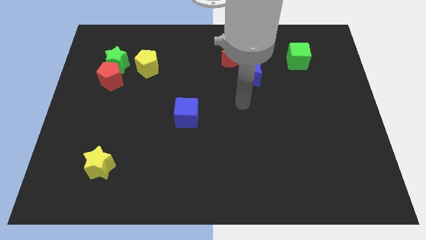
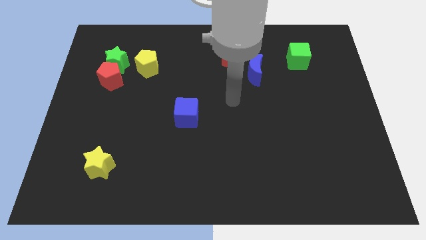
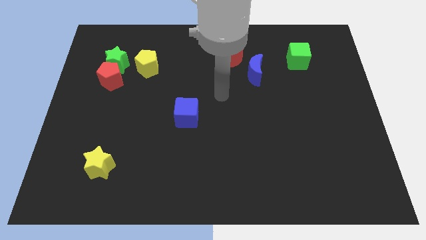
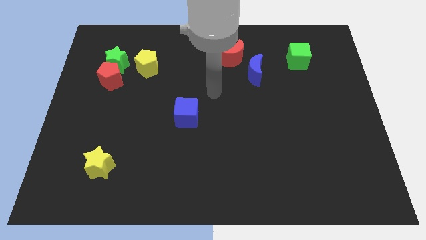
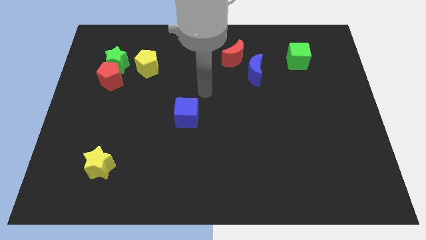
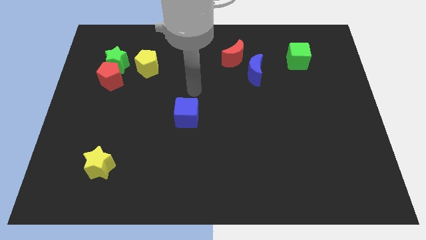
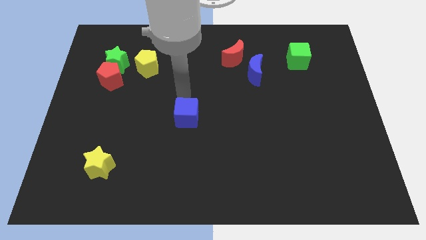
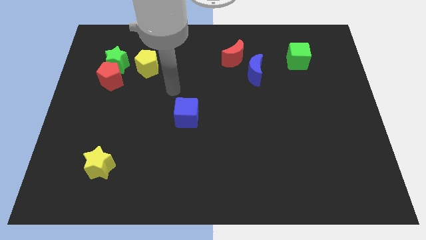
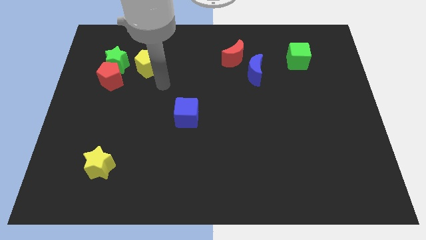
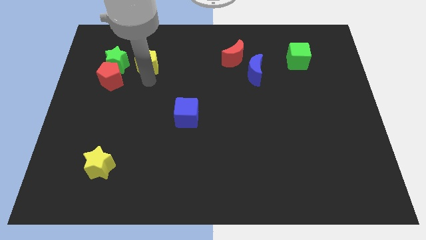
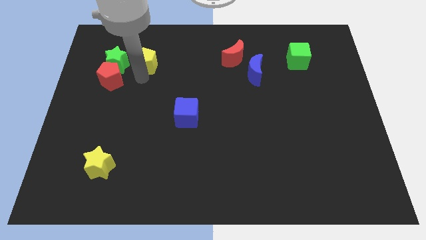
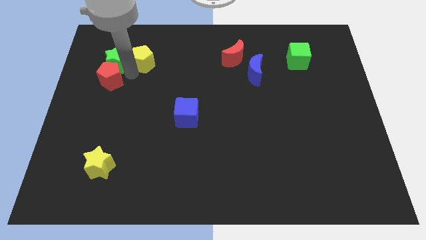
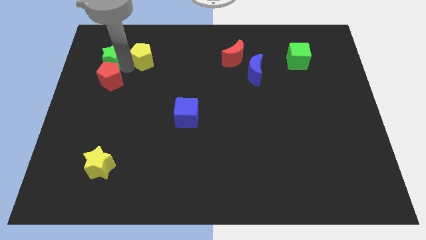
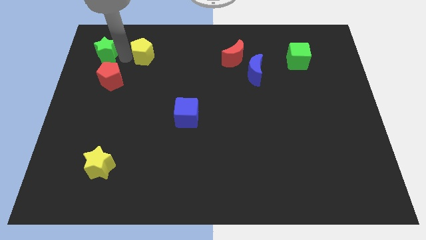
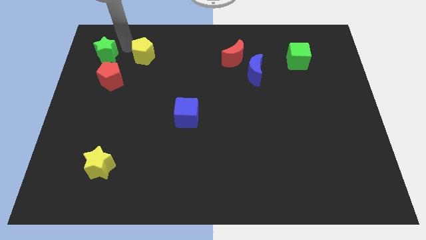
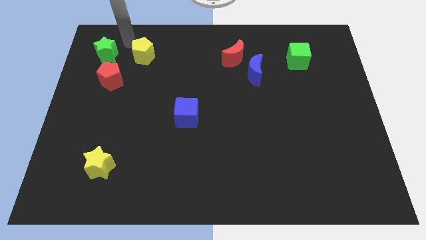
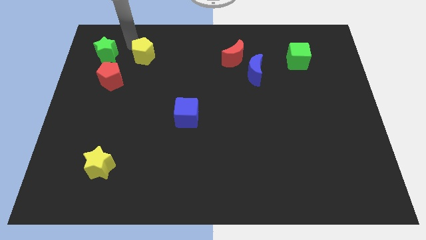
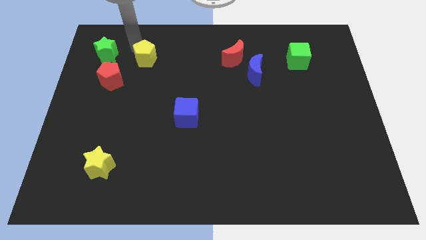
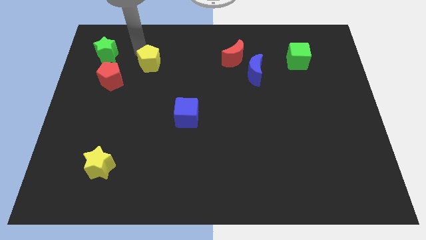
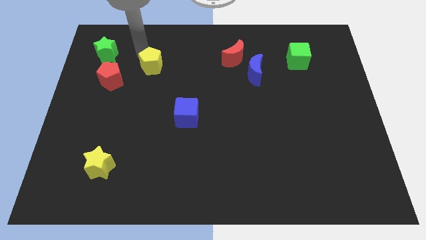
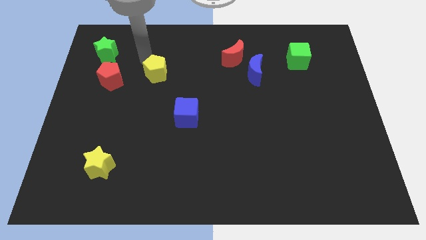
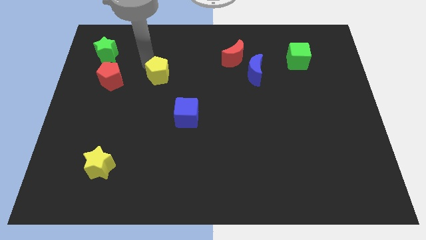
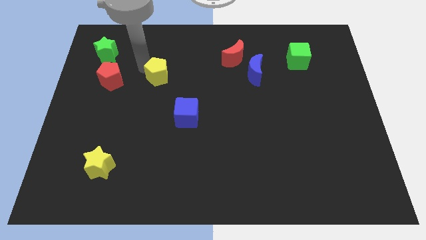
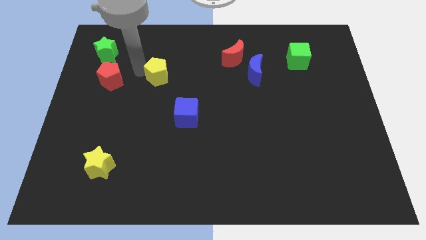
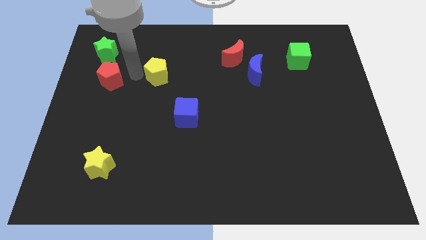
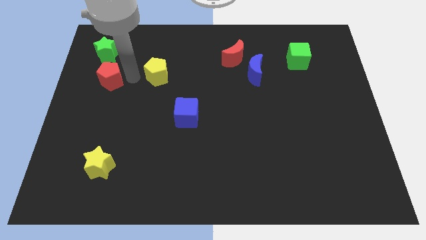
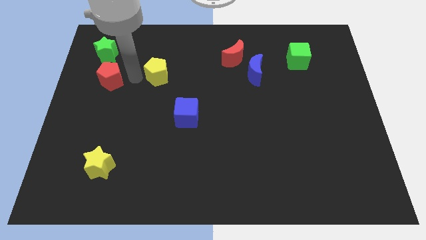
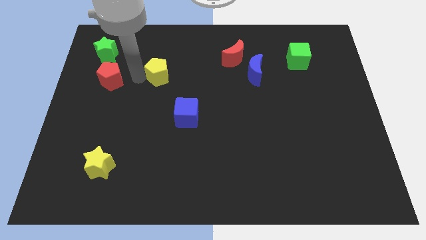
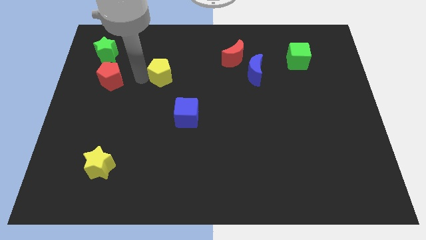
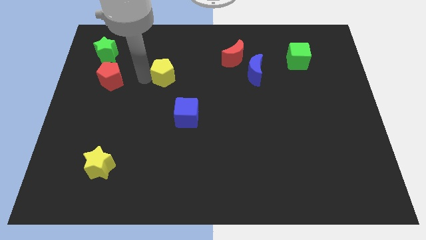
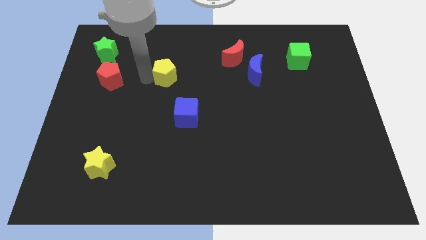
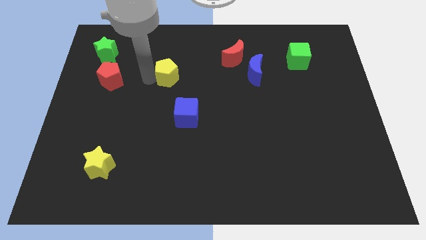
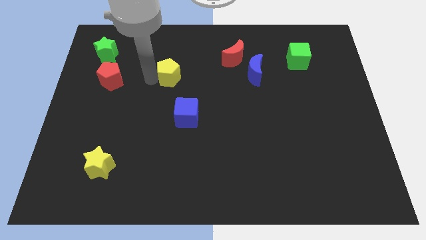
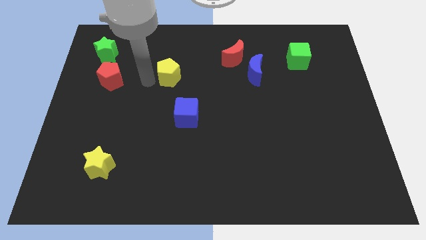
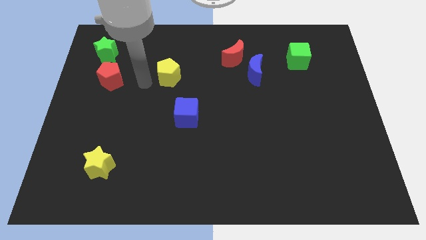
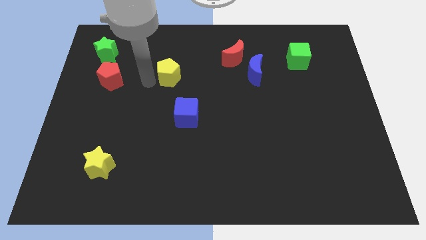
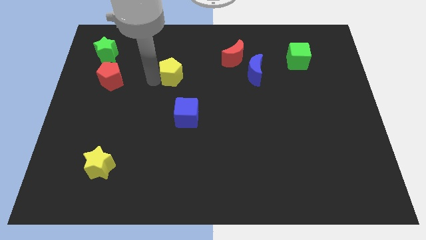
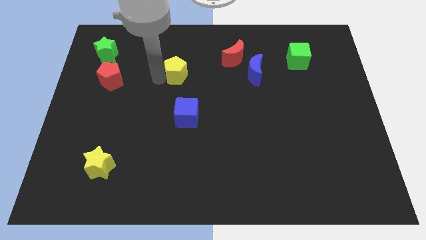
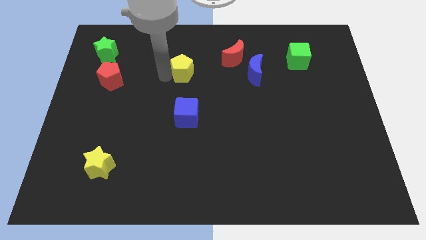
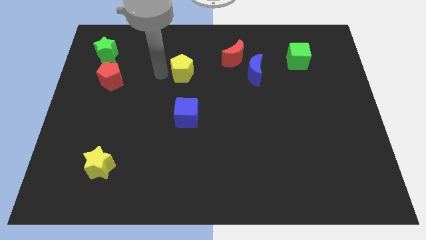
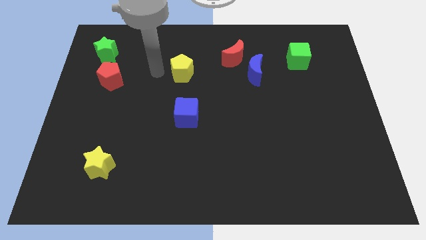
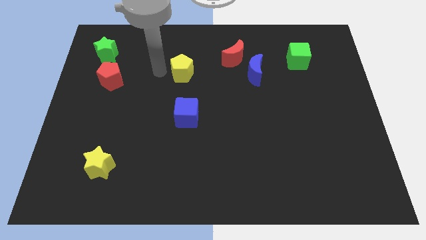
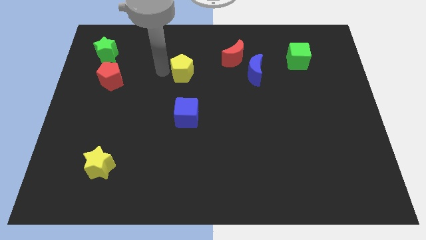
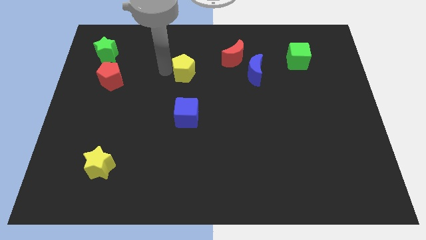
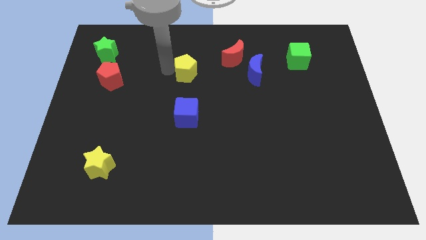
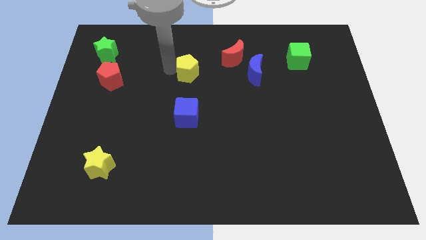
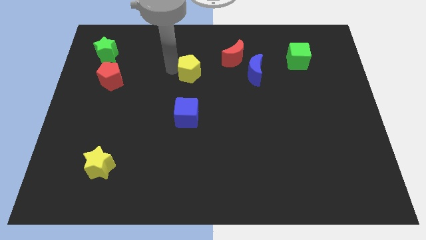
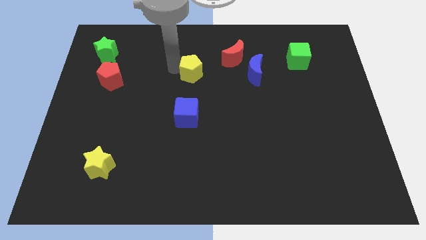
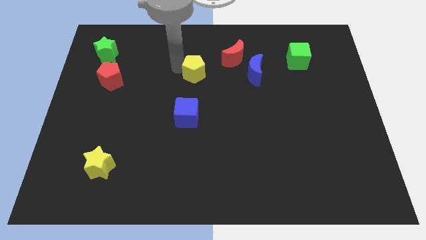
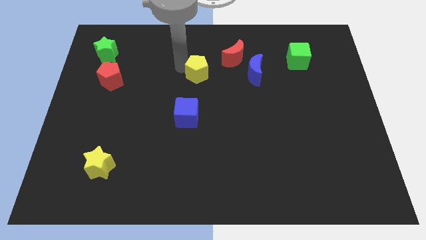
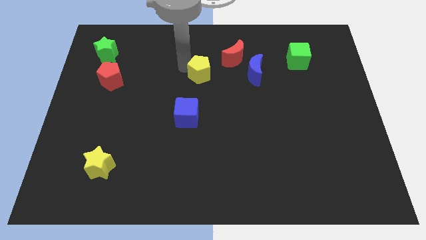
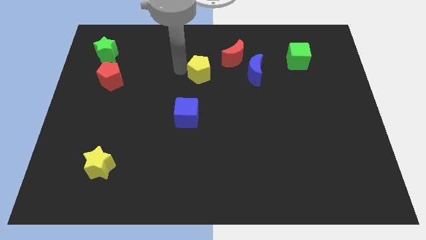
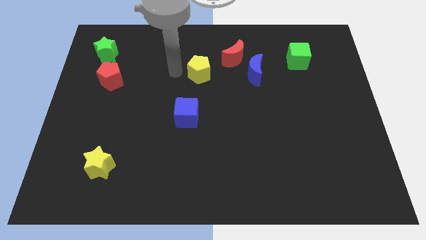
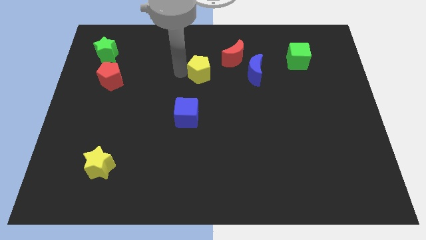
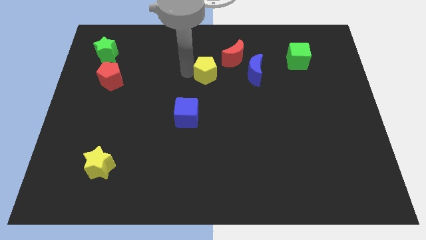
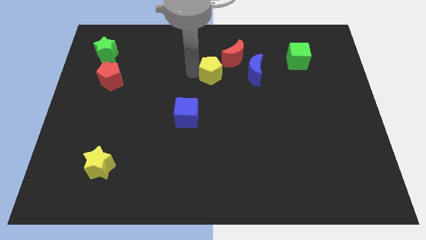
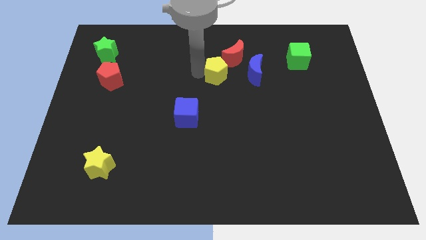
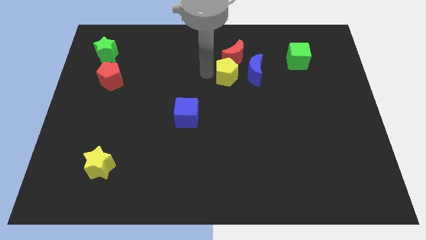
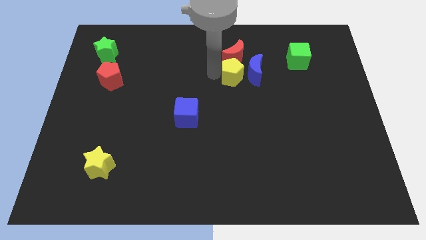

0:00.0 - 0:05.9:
slide the yellow pentagon close to the blue moon
